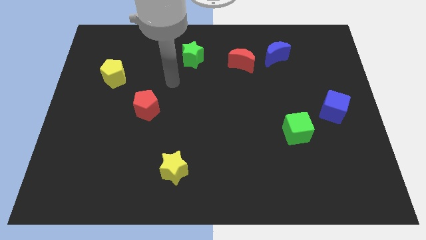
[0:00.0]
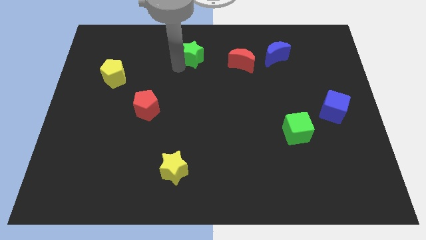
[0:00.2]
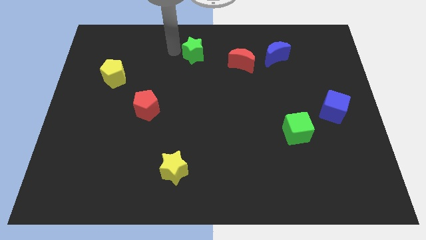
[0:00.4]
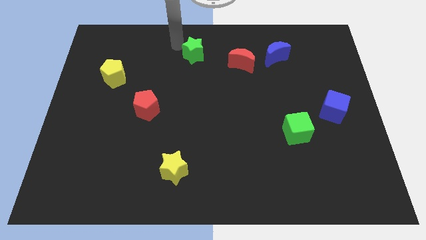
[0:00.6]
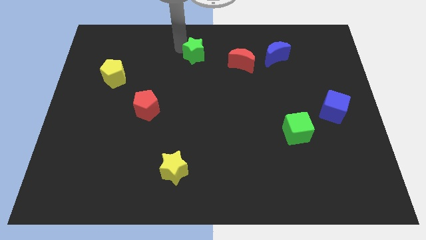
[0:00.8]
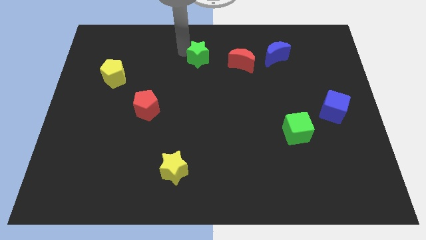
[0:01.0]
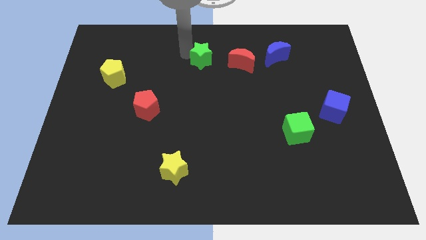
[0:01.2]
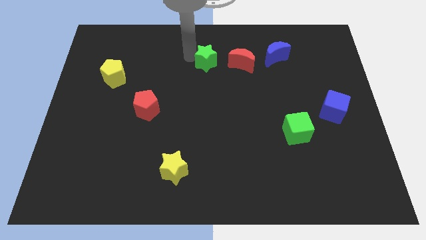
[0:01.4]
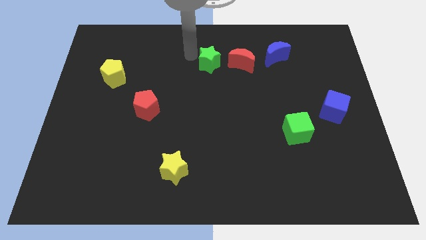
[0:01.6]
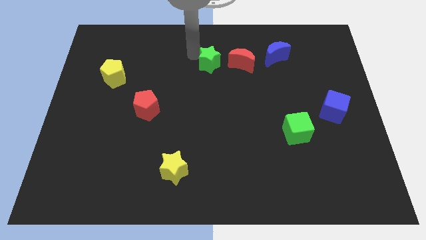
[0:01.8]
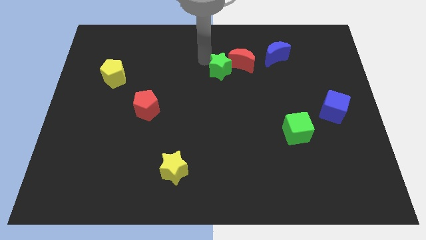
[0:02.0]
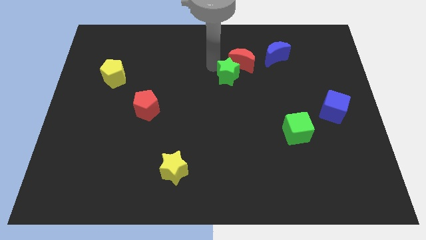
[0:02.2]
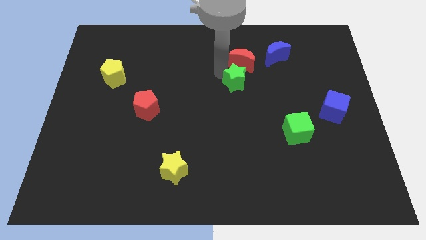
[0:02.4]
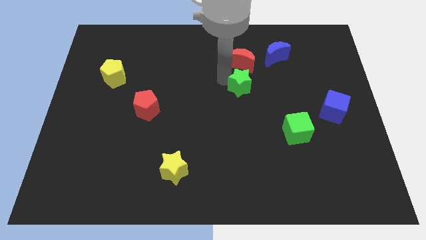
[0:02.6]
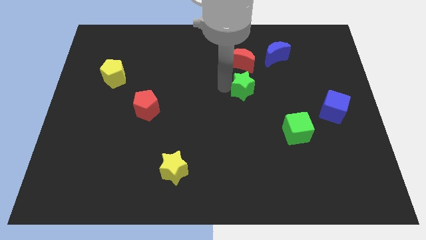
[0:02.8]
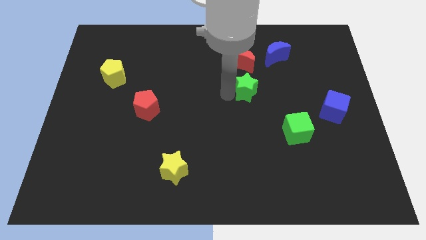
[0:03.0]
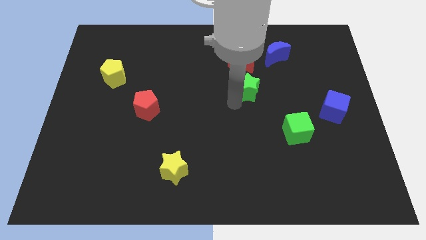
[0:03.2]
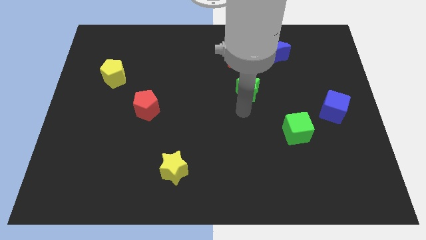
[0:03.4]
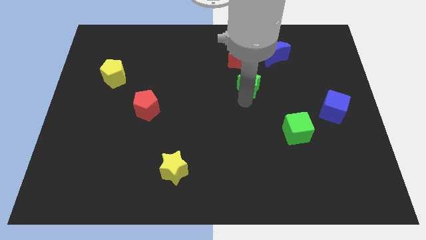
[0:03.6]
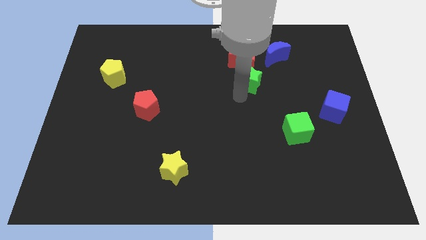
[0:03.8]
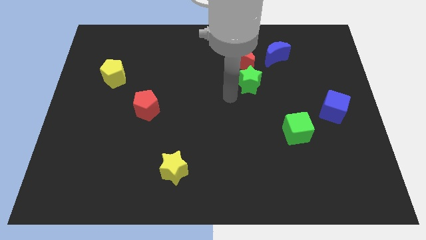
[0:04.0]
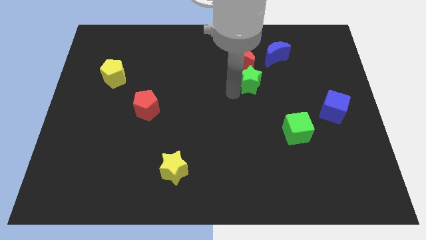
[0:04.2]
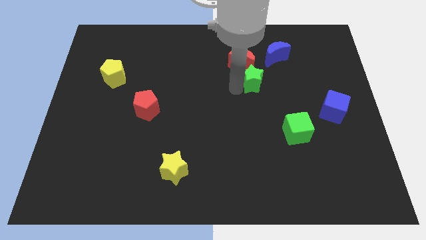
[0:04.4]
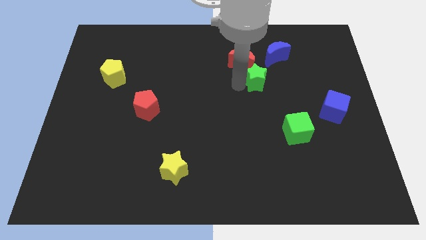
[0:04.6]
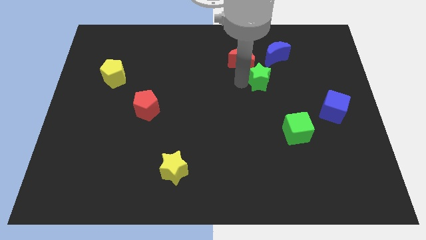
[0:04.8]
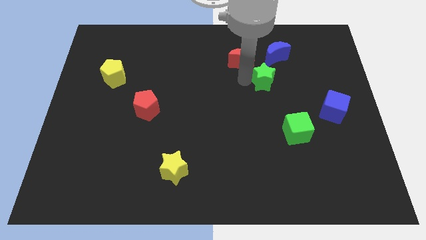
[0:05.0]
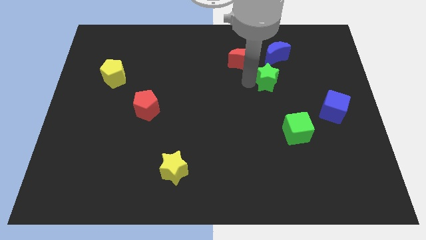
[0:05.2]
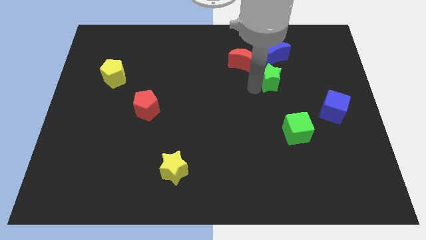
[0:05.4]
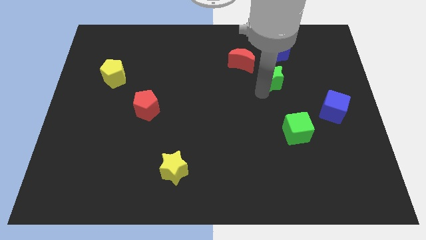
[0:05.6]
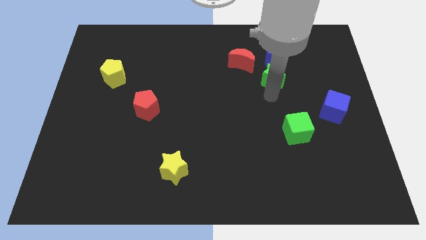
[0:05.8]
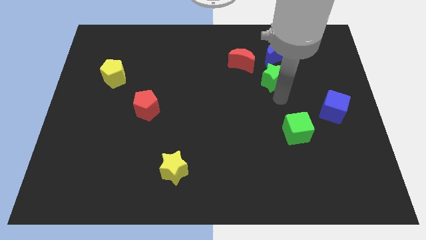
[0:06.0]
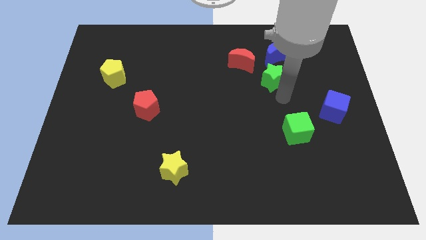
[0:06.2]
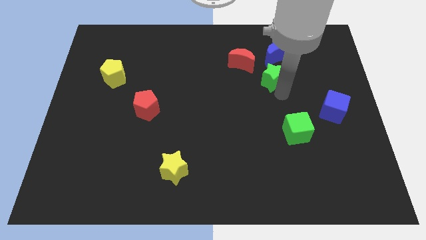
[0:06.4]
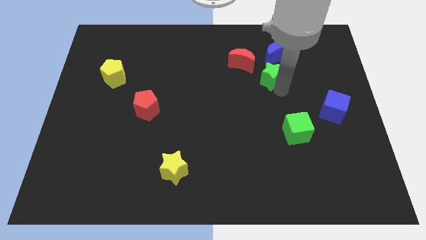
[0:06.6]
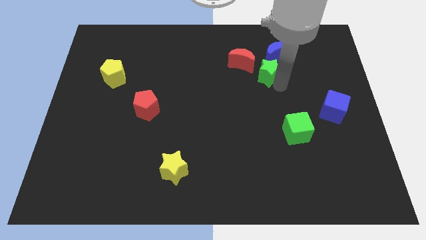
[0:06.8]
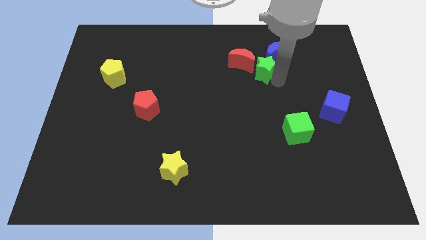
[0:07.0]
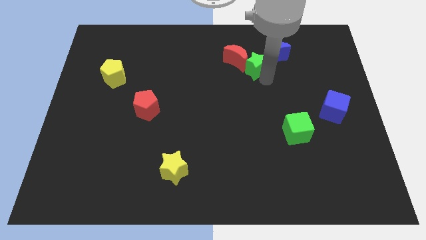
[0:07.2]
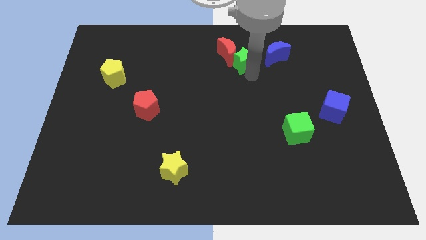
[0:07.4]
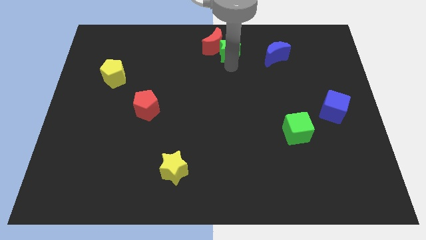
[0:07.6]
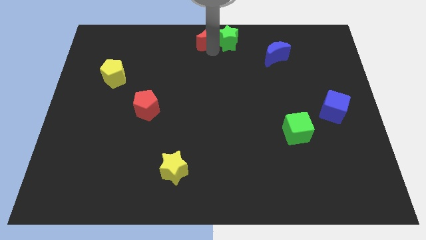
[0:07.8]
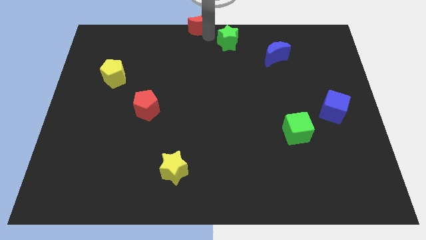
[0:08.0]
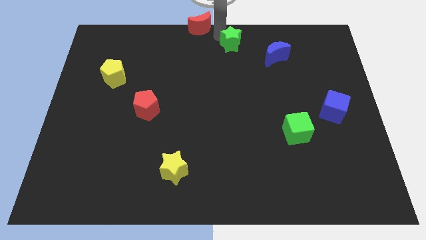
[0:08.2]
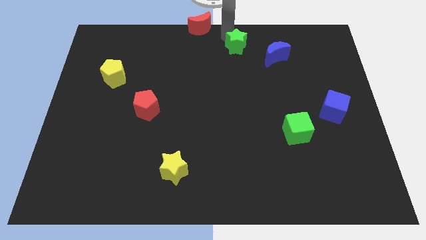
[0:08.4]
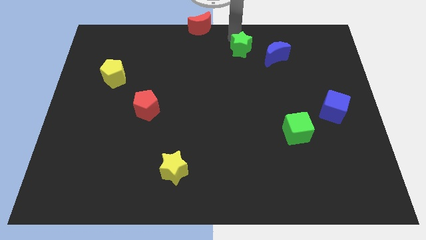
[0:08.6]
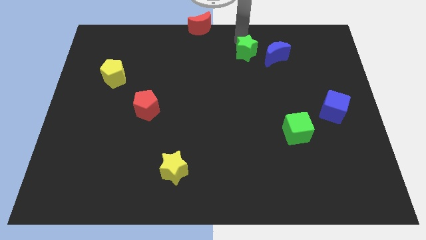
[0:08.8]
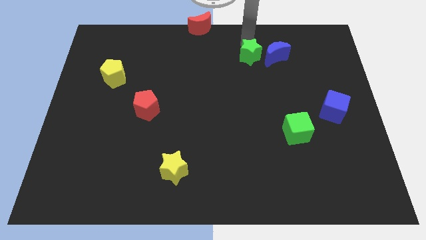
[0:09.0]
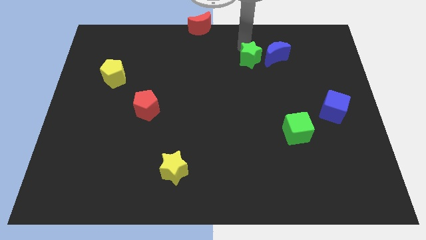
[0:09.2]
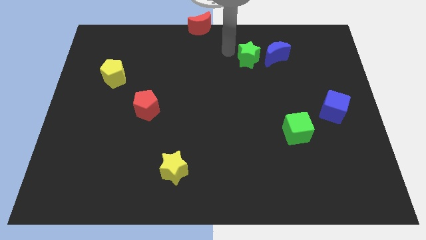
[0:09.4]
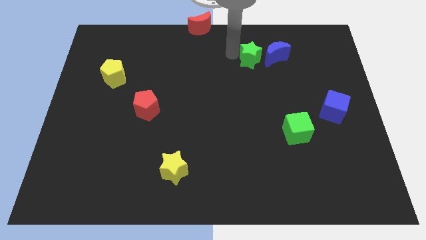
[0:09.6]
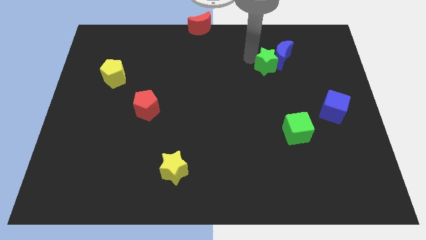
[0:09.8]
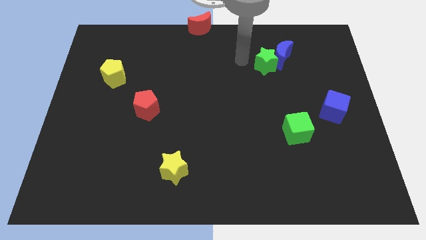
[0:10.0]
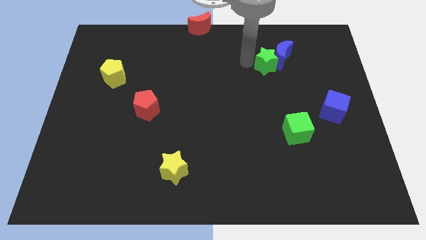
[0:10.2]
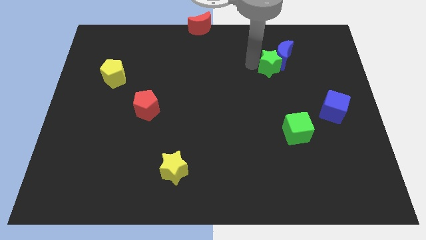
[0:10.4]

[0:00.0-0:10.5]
move the green star to the right

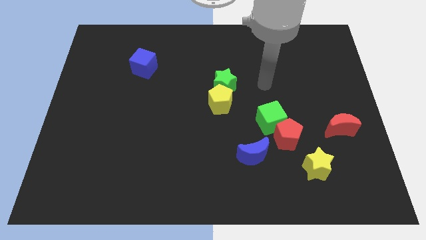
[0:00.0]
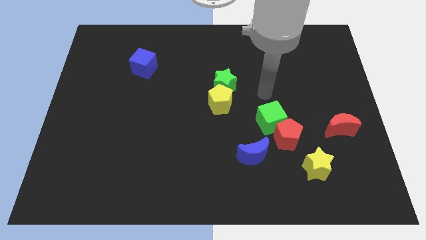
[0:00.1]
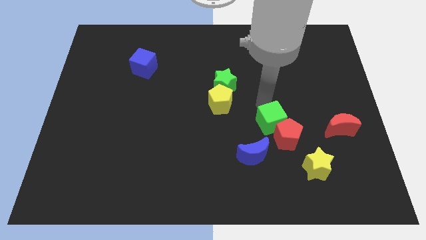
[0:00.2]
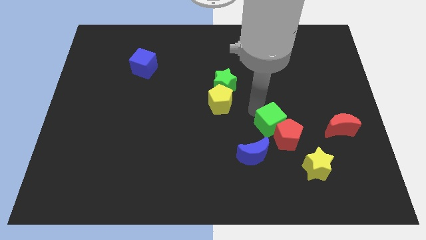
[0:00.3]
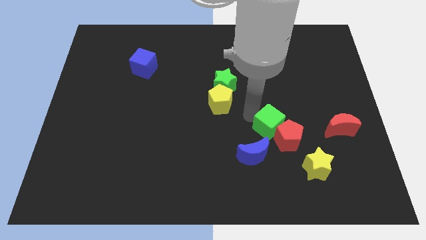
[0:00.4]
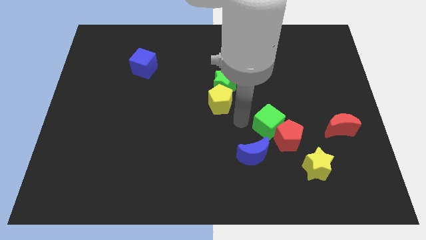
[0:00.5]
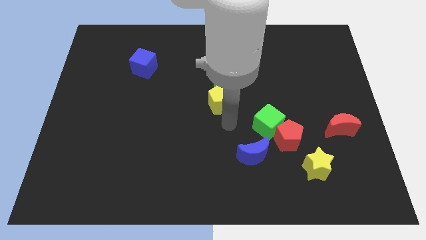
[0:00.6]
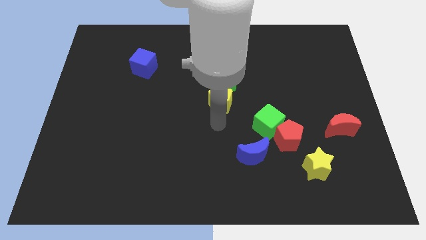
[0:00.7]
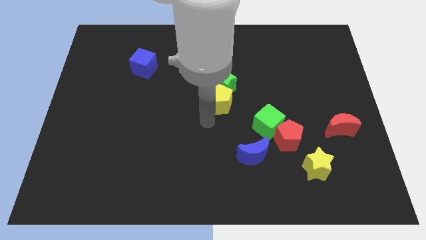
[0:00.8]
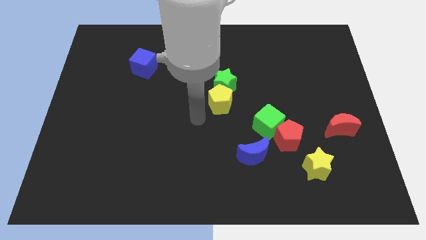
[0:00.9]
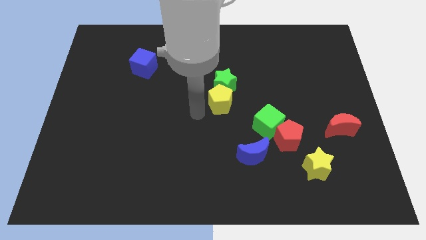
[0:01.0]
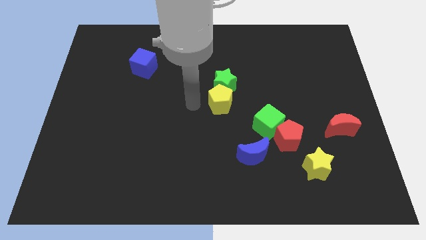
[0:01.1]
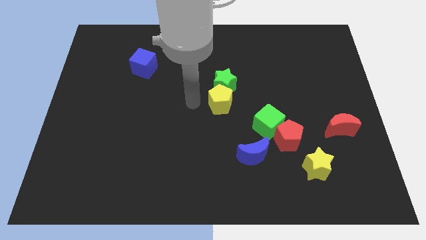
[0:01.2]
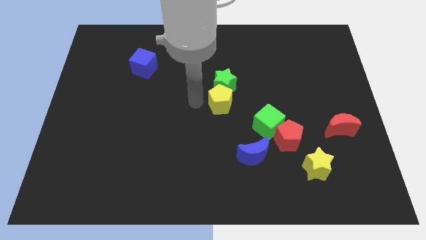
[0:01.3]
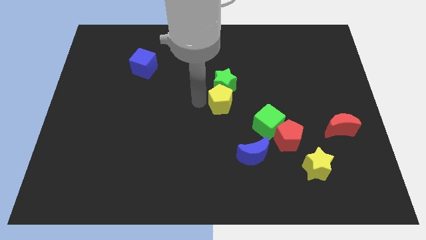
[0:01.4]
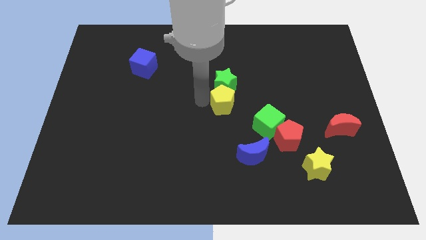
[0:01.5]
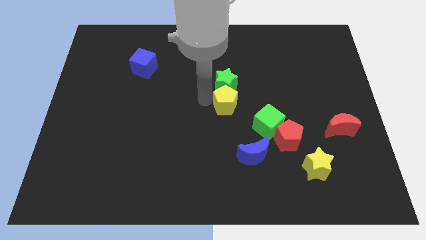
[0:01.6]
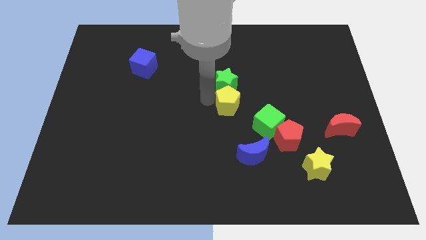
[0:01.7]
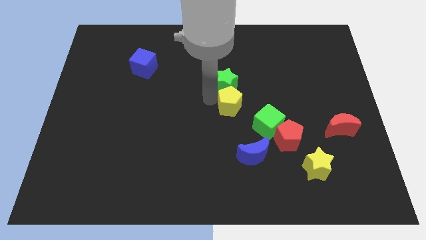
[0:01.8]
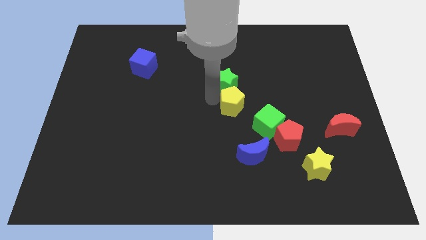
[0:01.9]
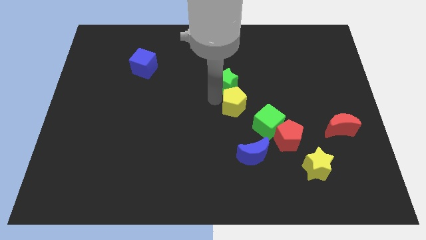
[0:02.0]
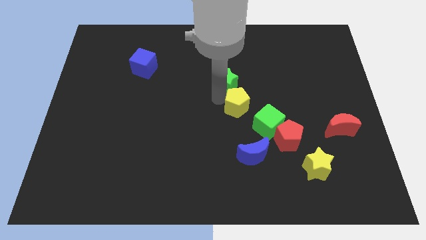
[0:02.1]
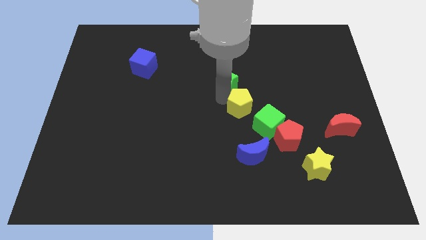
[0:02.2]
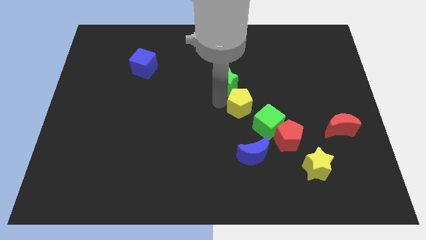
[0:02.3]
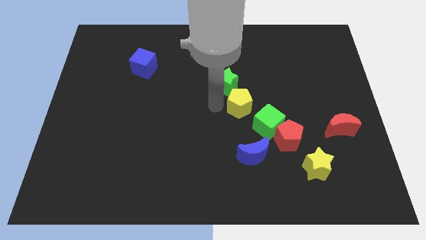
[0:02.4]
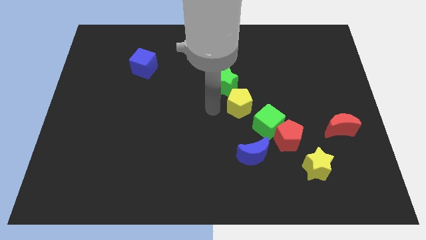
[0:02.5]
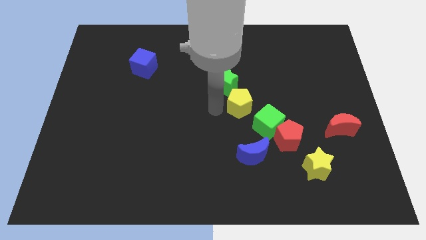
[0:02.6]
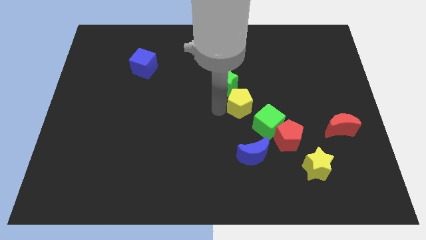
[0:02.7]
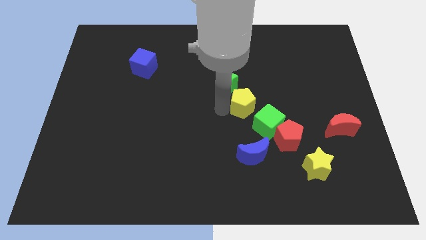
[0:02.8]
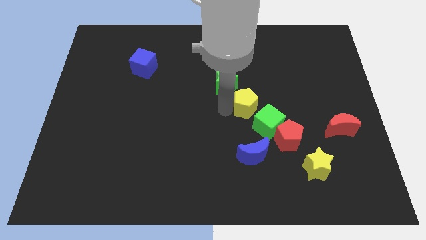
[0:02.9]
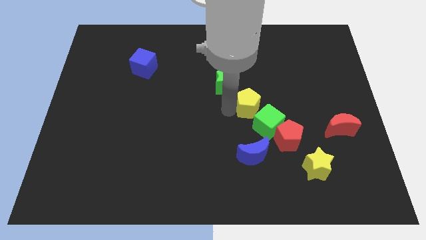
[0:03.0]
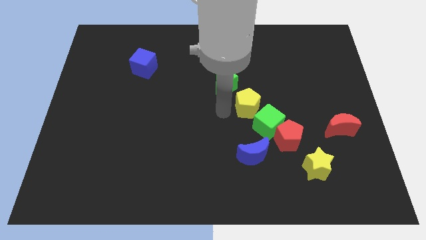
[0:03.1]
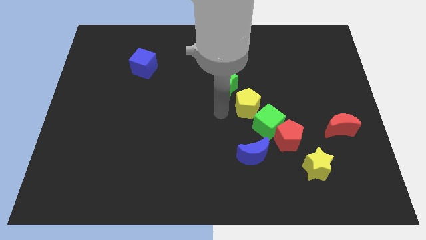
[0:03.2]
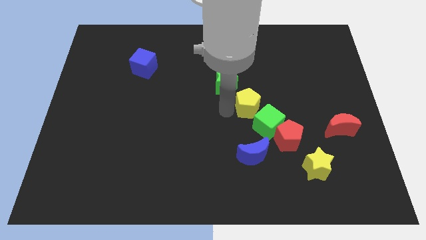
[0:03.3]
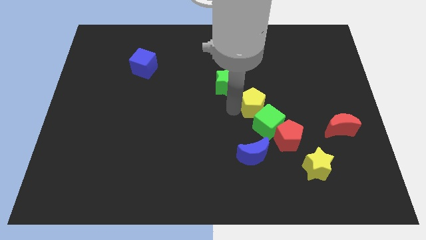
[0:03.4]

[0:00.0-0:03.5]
slide the yellow pentagon a little right
